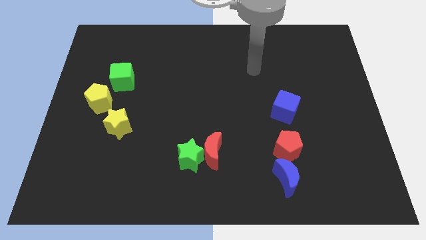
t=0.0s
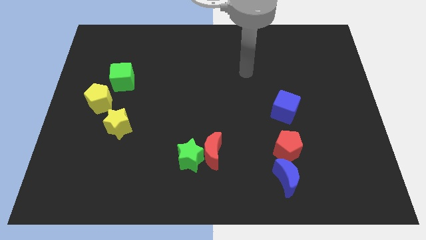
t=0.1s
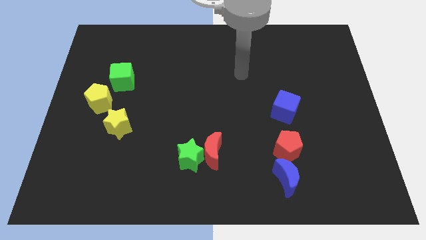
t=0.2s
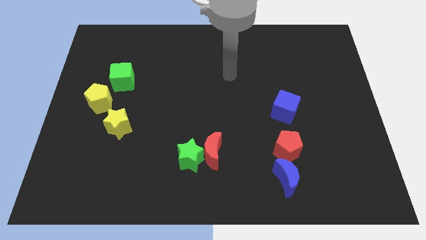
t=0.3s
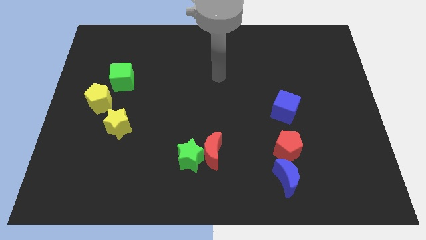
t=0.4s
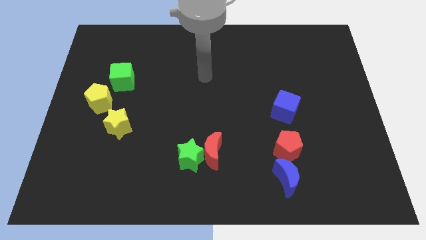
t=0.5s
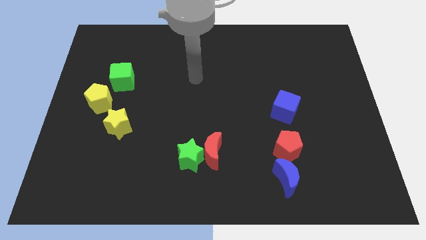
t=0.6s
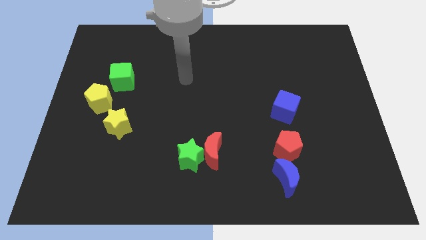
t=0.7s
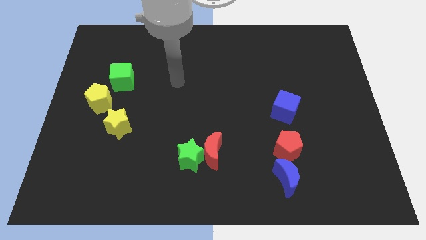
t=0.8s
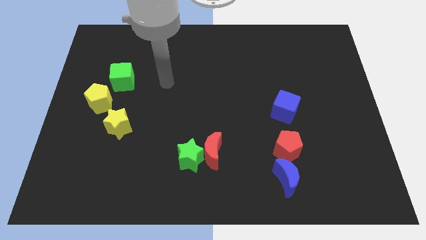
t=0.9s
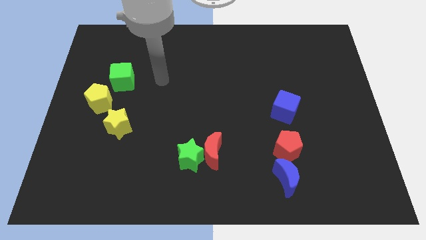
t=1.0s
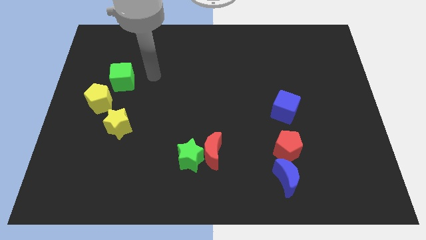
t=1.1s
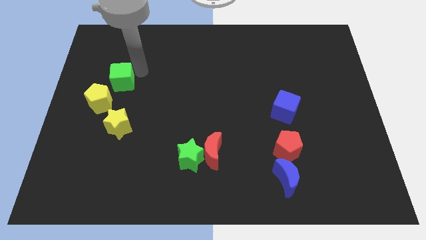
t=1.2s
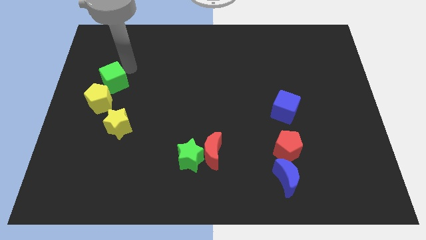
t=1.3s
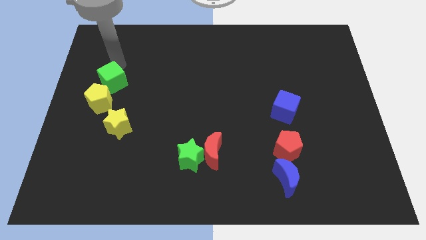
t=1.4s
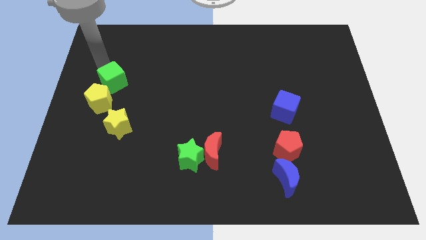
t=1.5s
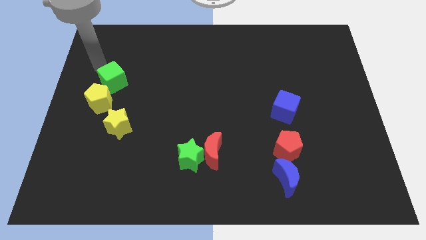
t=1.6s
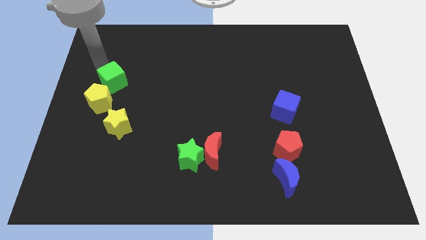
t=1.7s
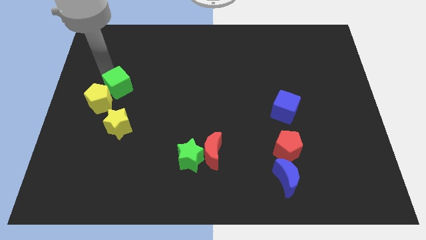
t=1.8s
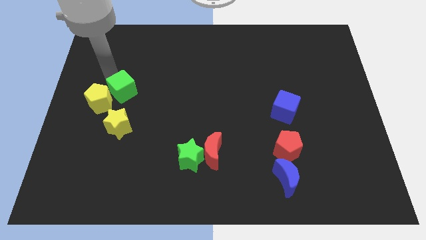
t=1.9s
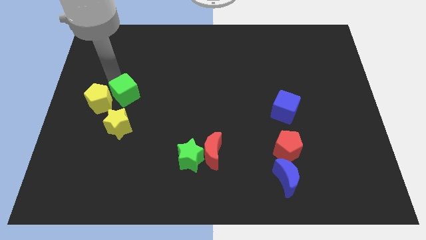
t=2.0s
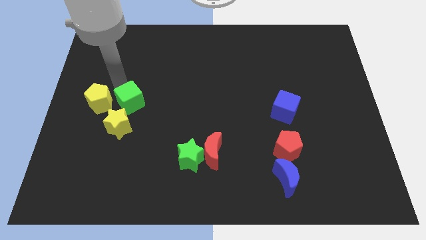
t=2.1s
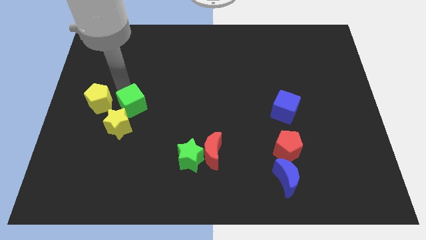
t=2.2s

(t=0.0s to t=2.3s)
slide the green cube somewhat downwards

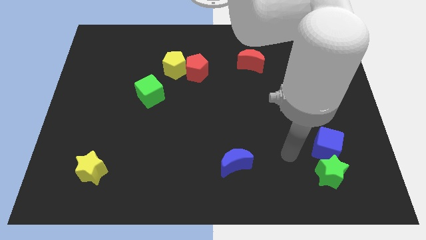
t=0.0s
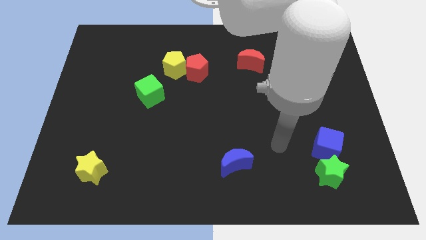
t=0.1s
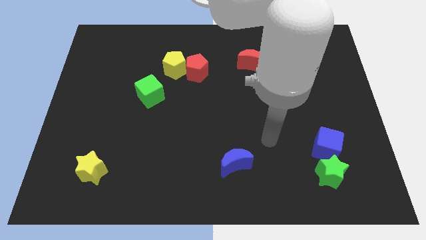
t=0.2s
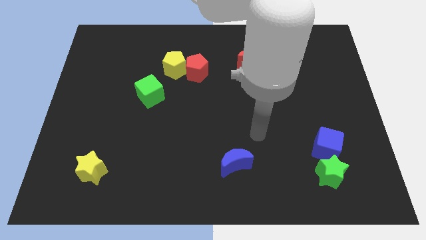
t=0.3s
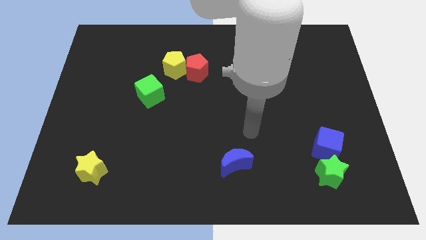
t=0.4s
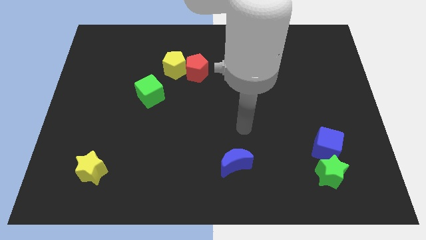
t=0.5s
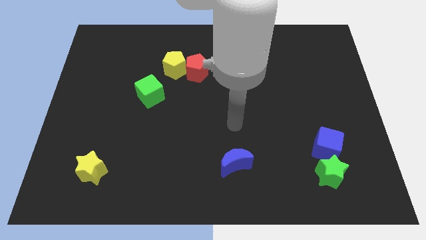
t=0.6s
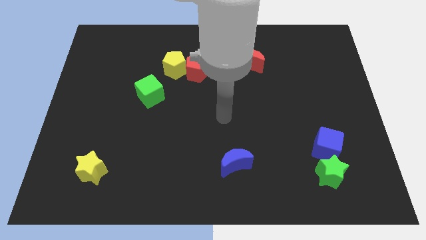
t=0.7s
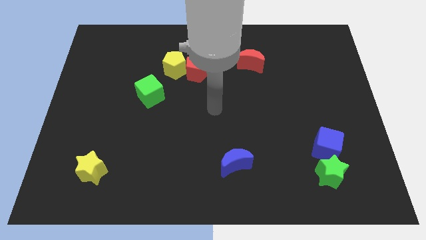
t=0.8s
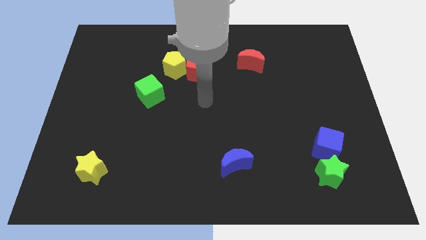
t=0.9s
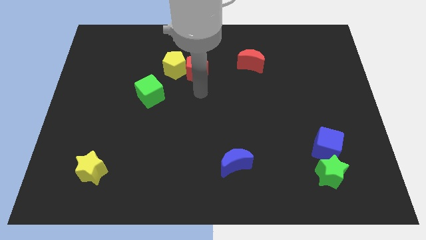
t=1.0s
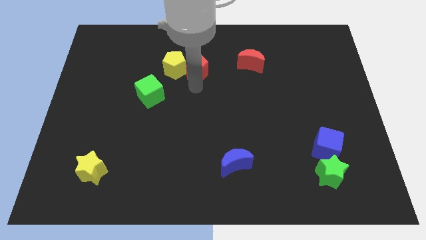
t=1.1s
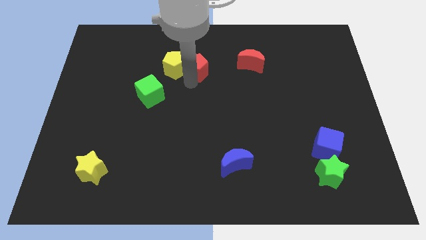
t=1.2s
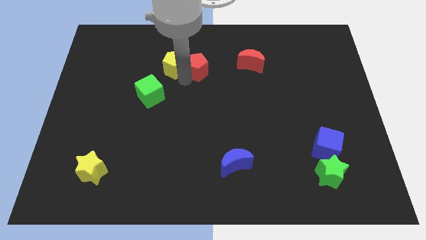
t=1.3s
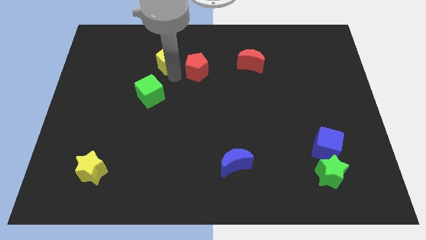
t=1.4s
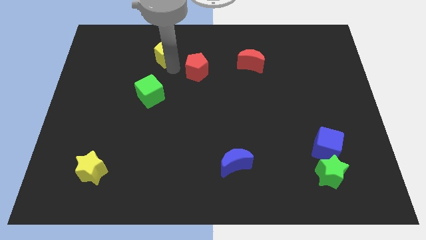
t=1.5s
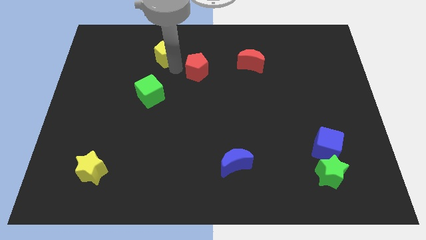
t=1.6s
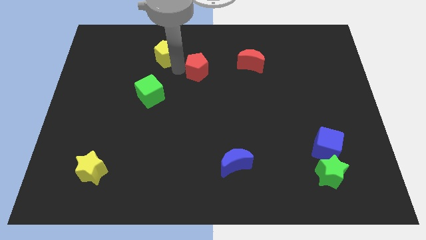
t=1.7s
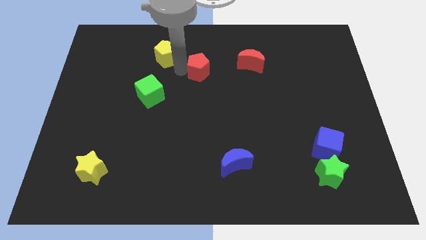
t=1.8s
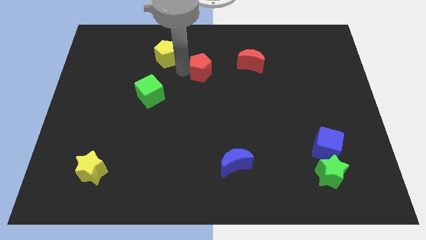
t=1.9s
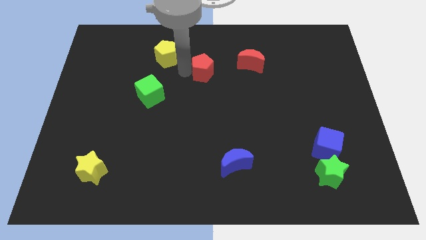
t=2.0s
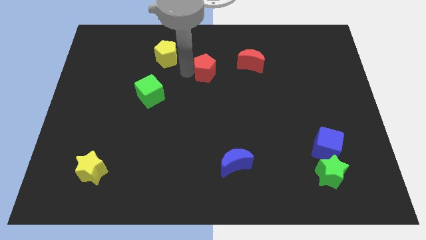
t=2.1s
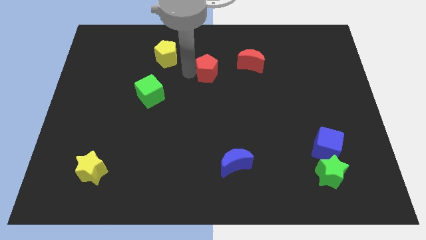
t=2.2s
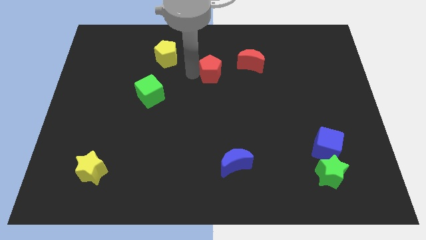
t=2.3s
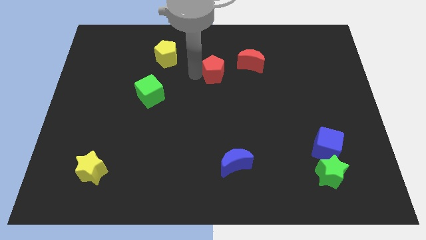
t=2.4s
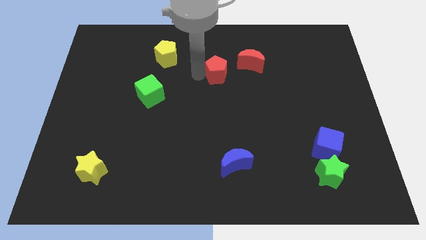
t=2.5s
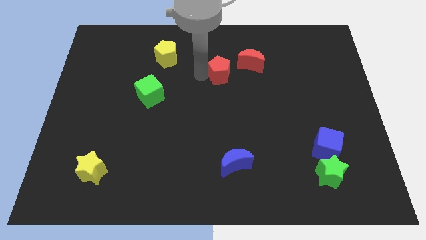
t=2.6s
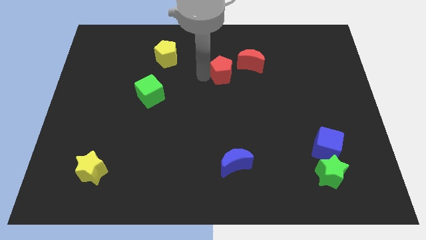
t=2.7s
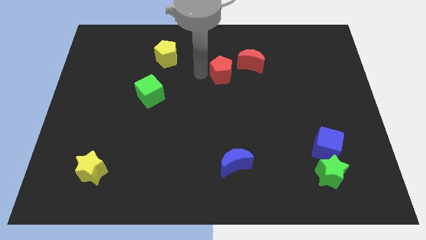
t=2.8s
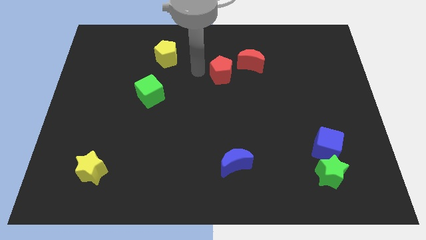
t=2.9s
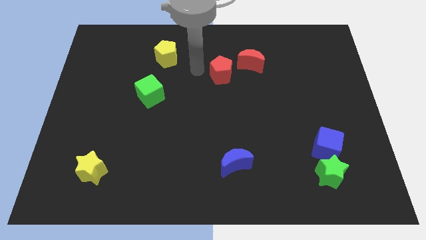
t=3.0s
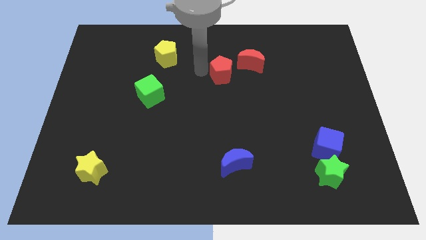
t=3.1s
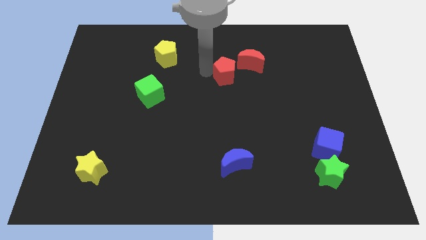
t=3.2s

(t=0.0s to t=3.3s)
slide the red pentagon right a little bit

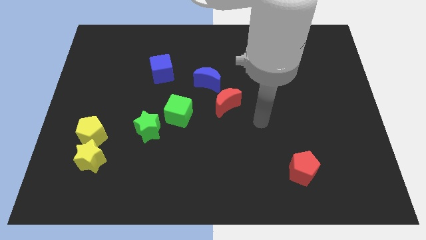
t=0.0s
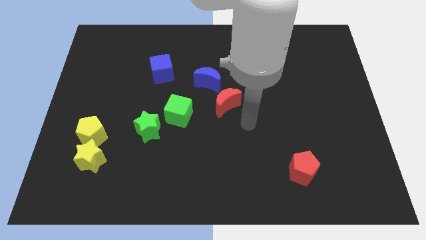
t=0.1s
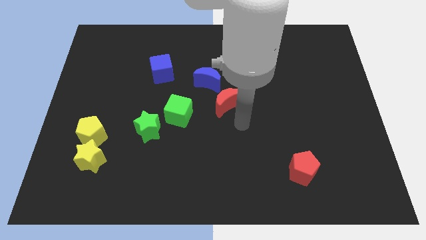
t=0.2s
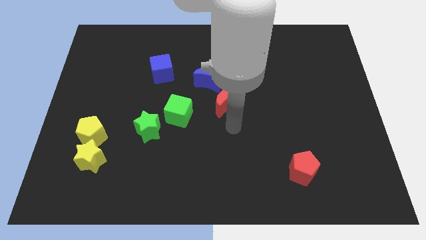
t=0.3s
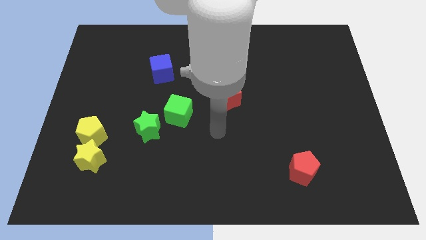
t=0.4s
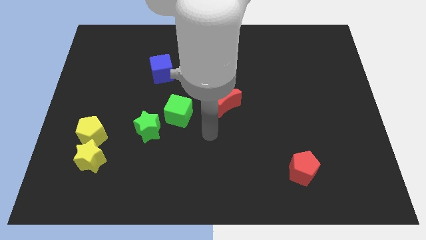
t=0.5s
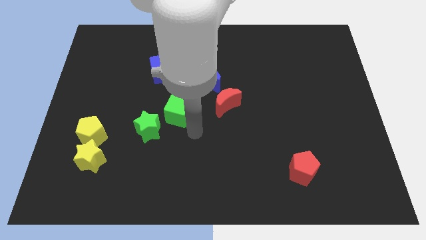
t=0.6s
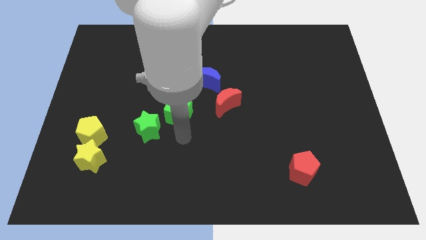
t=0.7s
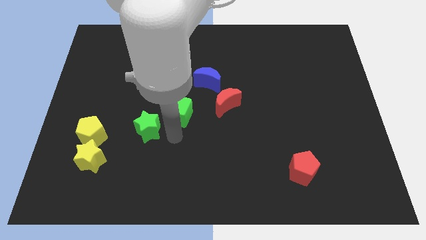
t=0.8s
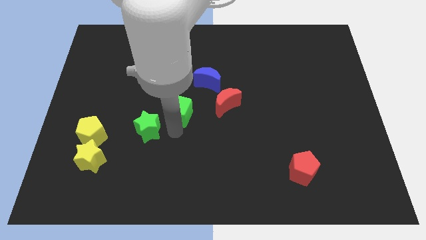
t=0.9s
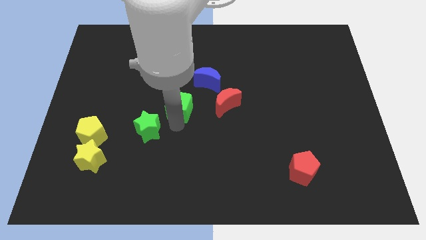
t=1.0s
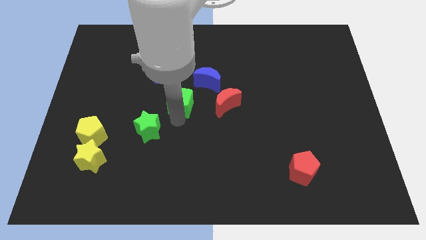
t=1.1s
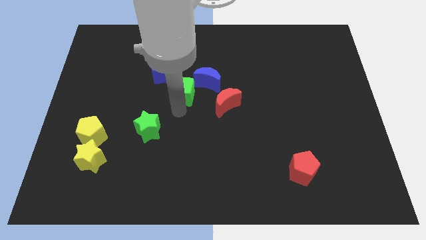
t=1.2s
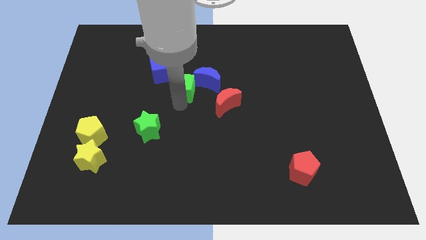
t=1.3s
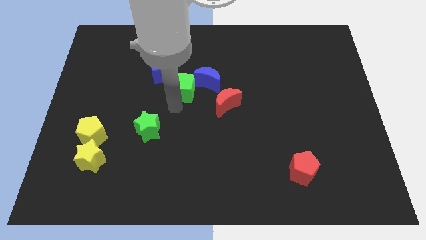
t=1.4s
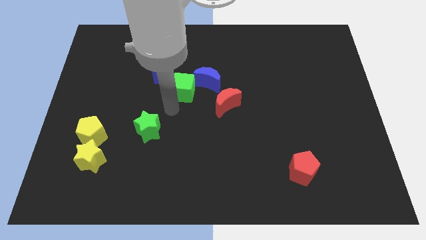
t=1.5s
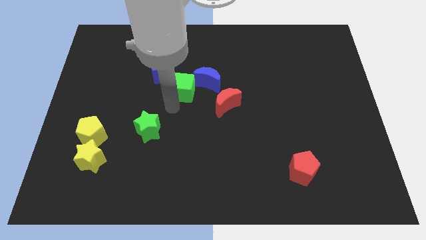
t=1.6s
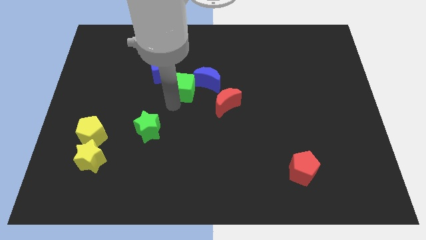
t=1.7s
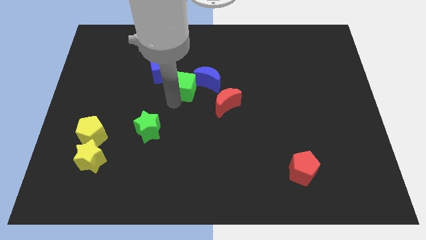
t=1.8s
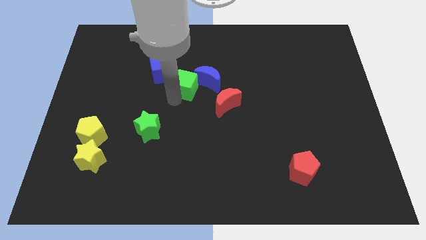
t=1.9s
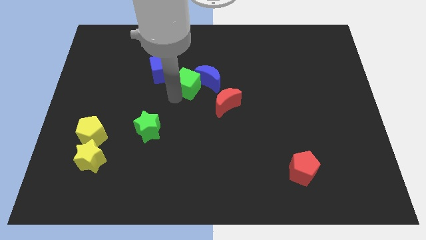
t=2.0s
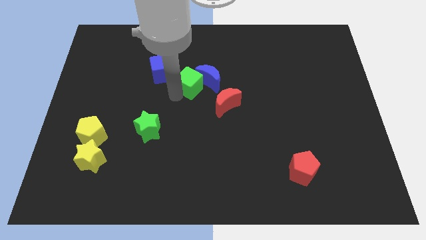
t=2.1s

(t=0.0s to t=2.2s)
move the green cube up and right a little bit

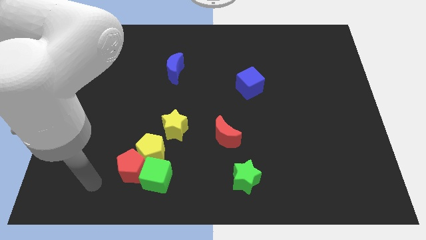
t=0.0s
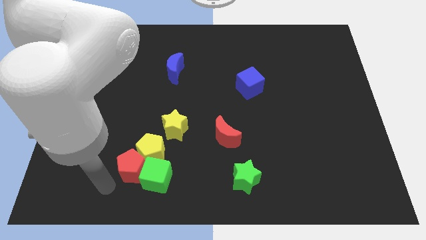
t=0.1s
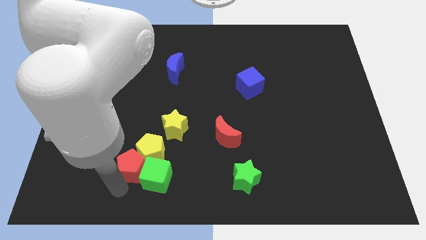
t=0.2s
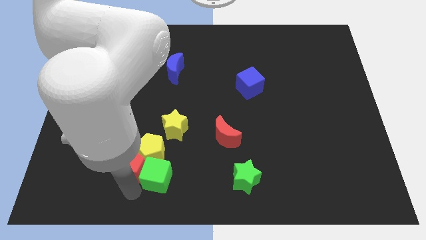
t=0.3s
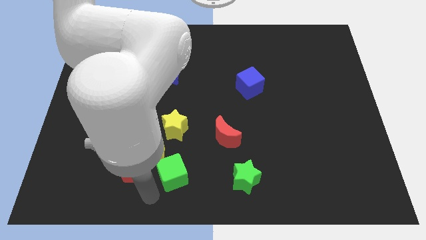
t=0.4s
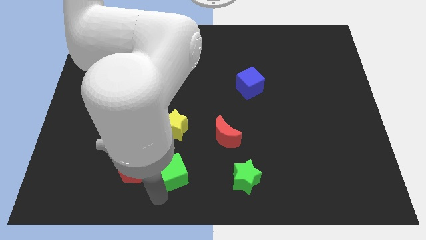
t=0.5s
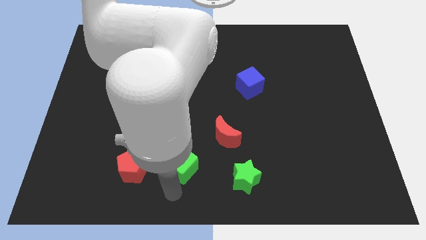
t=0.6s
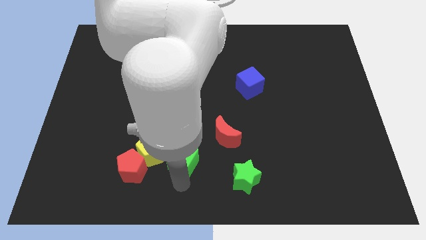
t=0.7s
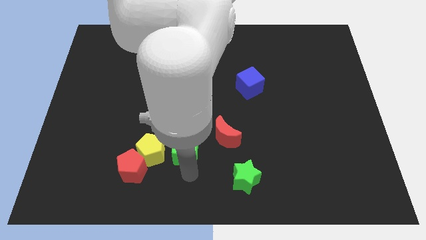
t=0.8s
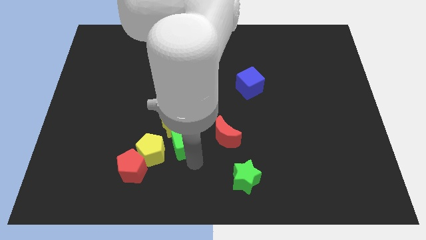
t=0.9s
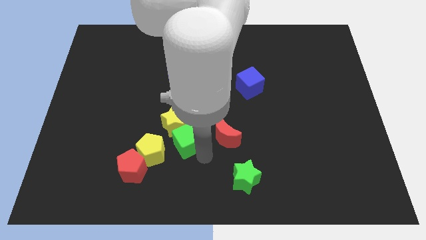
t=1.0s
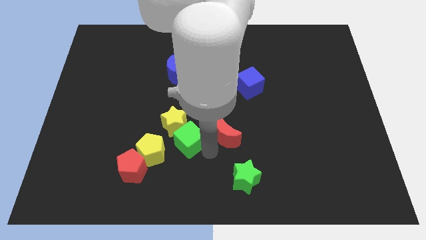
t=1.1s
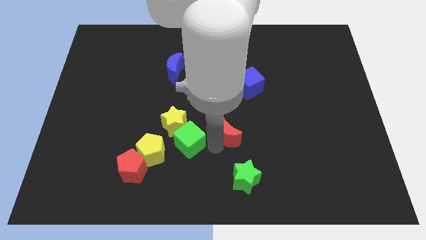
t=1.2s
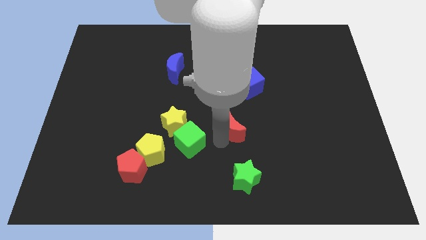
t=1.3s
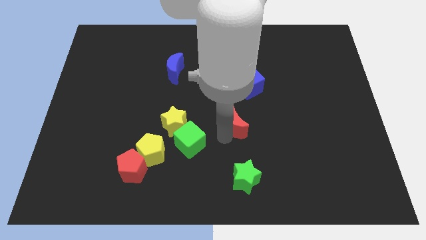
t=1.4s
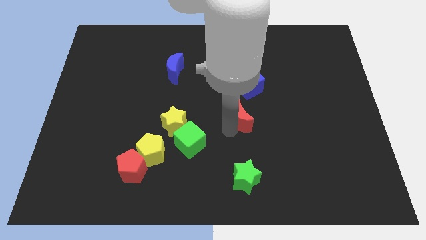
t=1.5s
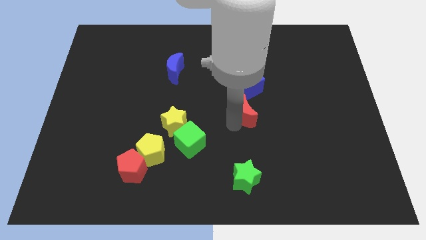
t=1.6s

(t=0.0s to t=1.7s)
slightly slide the red moon up and then to the right
